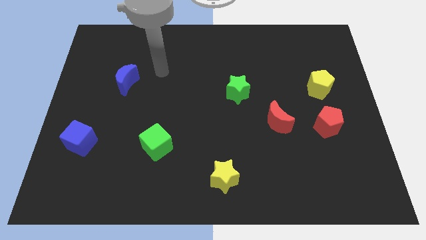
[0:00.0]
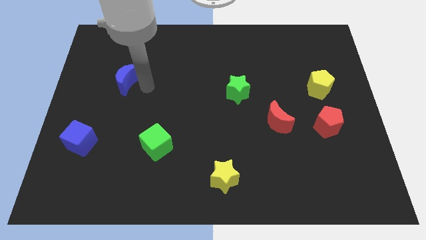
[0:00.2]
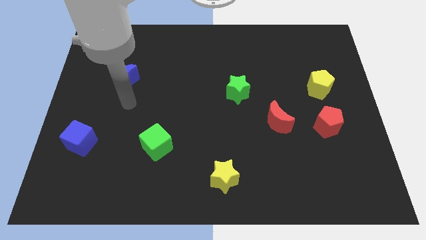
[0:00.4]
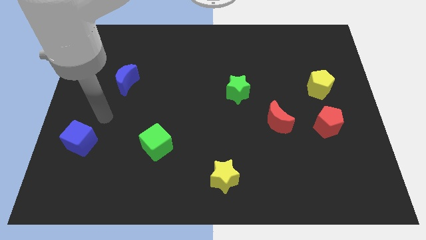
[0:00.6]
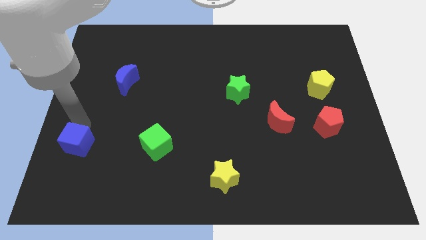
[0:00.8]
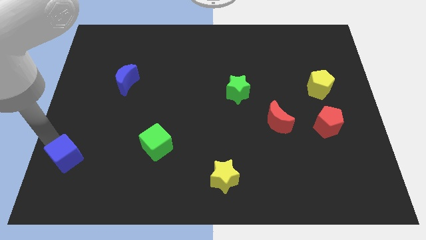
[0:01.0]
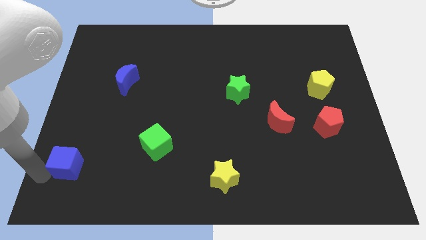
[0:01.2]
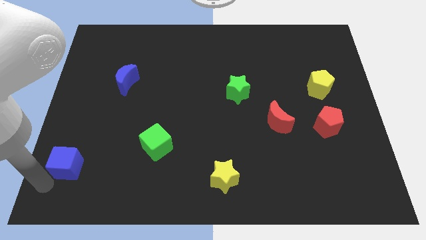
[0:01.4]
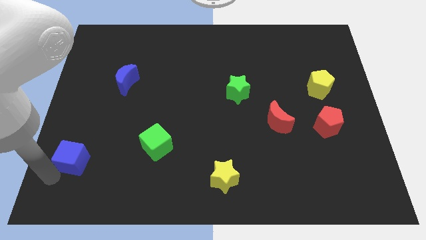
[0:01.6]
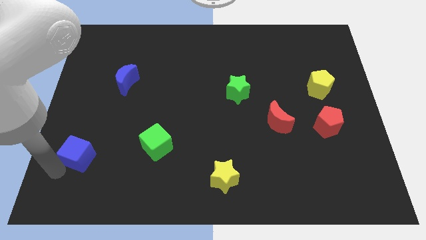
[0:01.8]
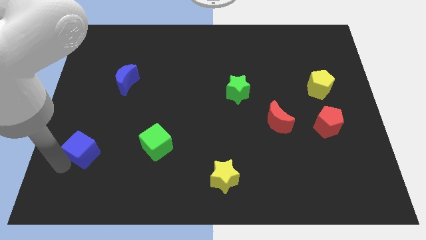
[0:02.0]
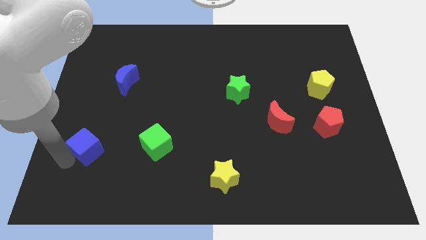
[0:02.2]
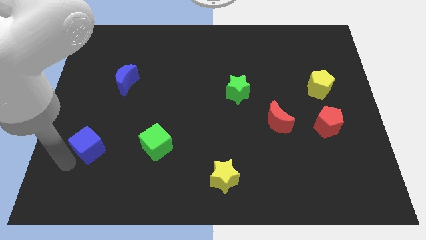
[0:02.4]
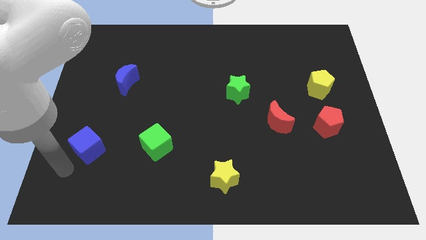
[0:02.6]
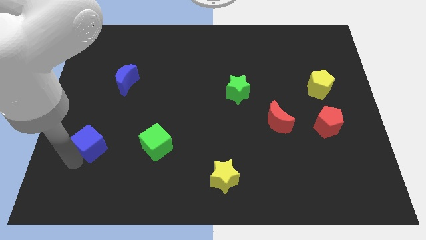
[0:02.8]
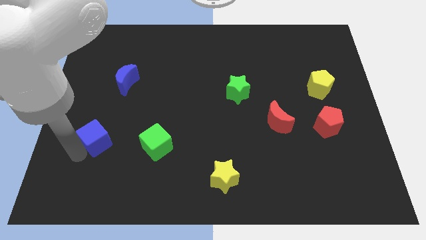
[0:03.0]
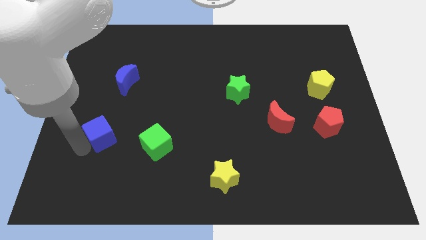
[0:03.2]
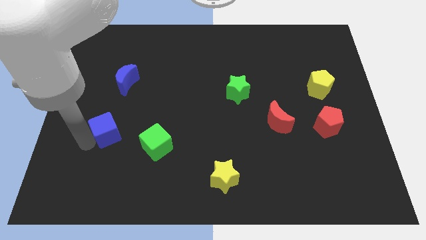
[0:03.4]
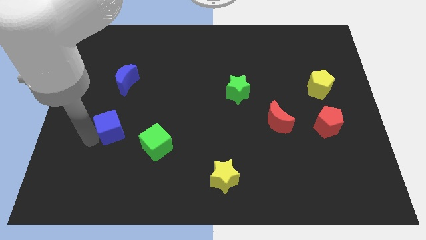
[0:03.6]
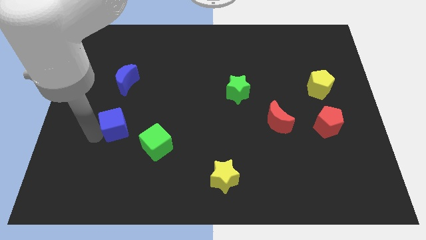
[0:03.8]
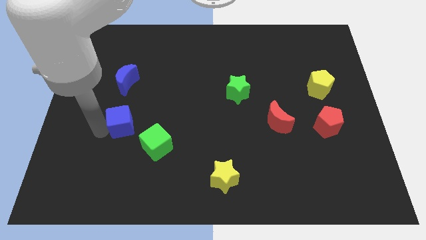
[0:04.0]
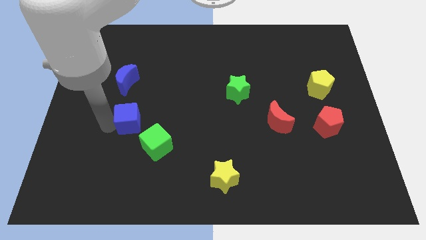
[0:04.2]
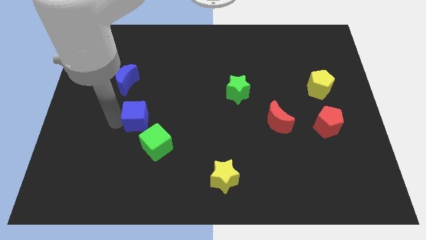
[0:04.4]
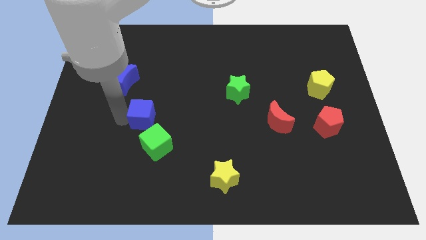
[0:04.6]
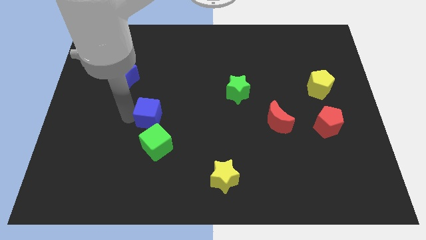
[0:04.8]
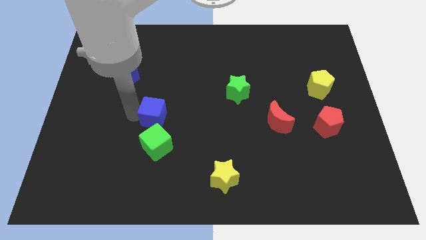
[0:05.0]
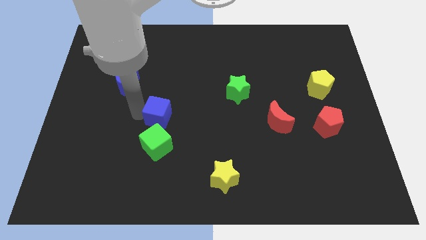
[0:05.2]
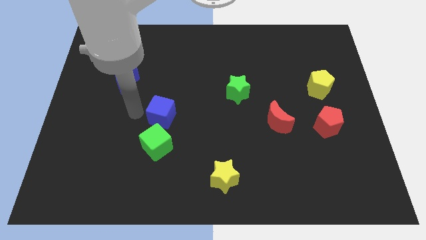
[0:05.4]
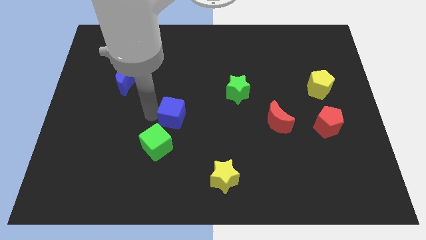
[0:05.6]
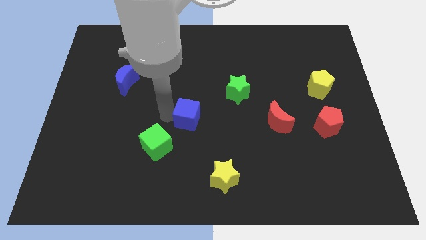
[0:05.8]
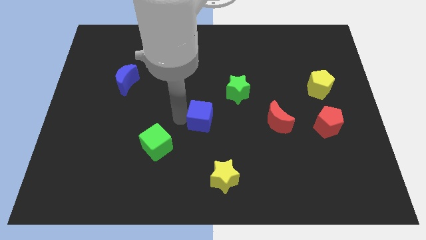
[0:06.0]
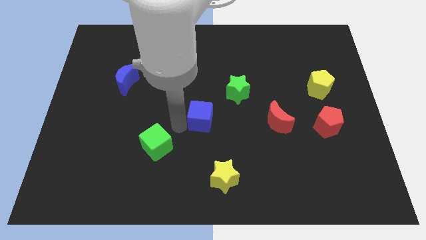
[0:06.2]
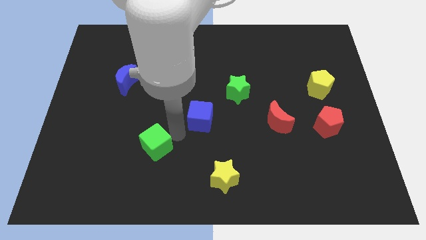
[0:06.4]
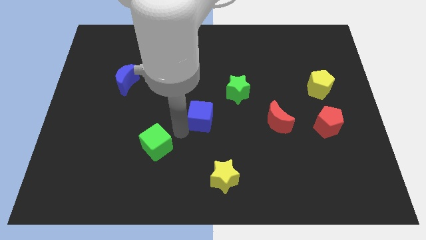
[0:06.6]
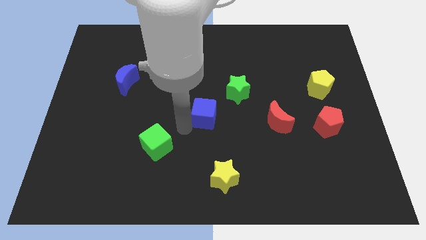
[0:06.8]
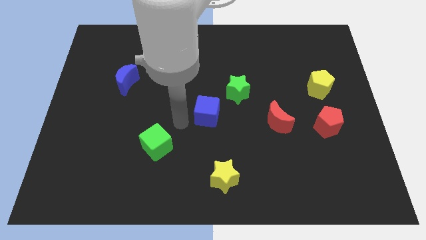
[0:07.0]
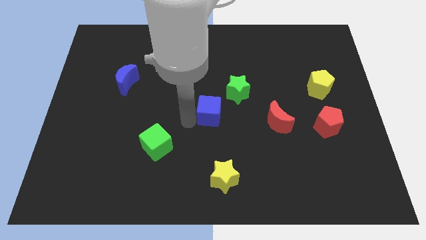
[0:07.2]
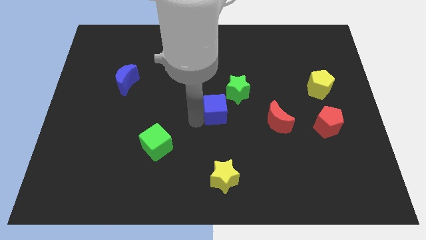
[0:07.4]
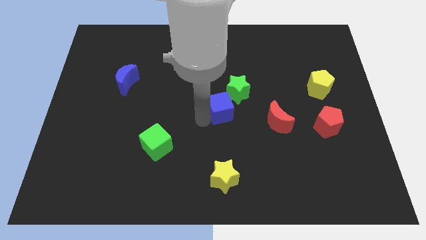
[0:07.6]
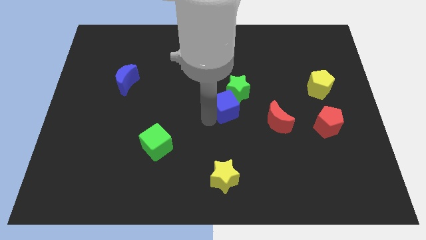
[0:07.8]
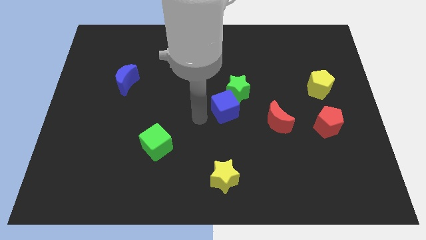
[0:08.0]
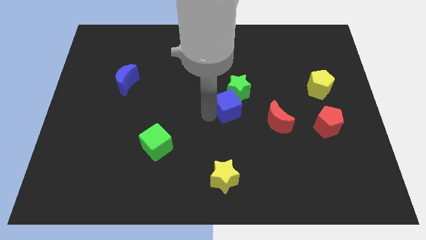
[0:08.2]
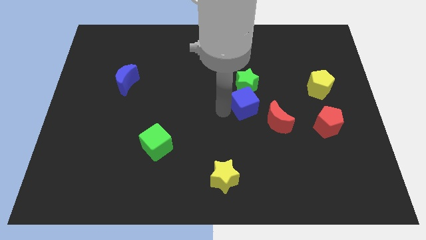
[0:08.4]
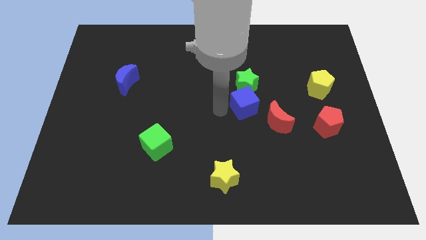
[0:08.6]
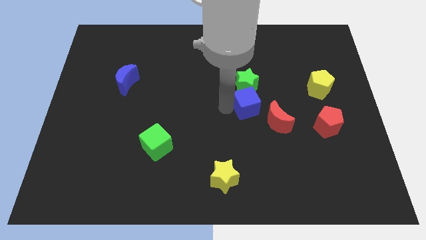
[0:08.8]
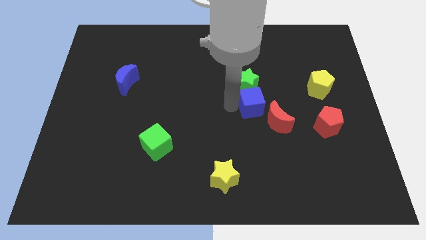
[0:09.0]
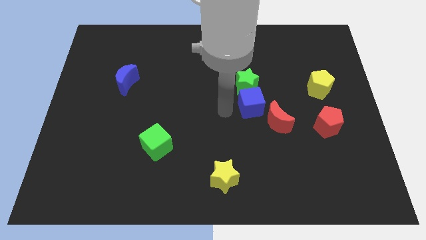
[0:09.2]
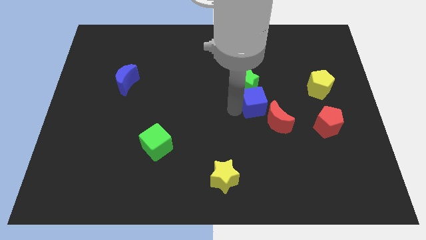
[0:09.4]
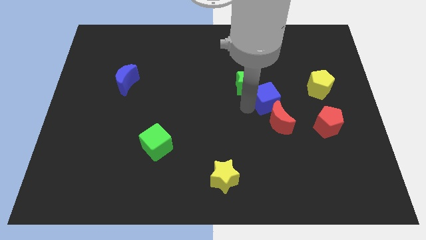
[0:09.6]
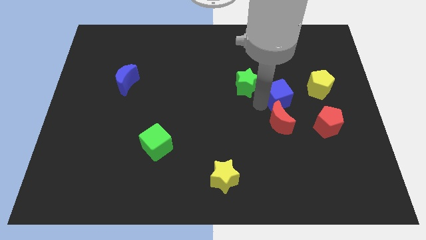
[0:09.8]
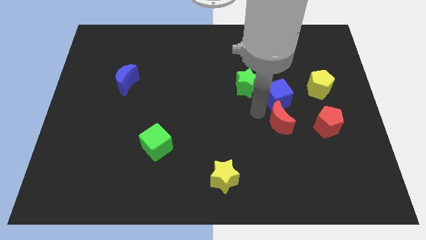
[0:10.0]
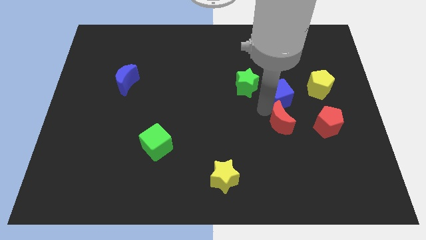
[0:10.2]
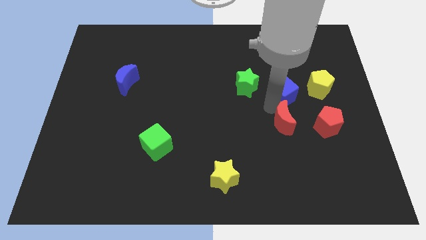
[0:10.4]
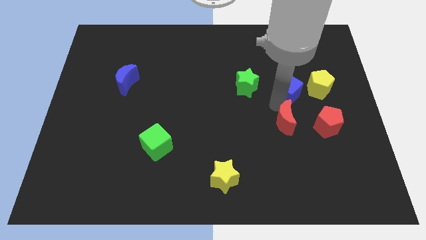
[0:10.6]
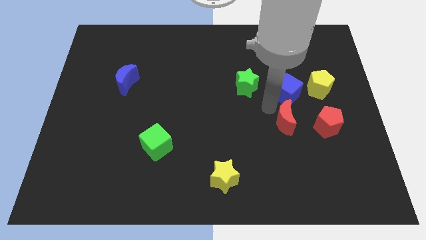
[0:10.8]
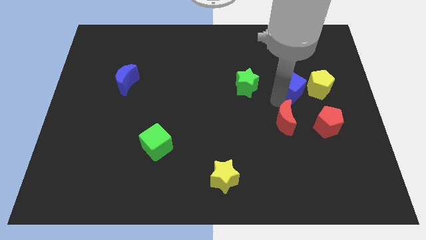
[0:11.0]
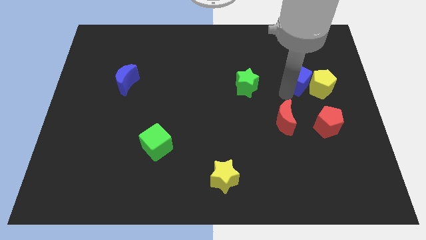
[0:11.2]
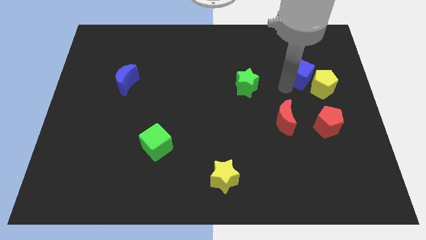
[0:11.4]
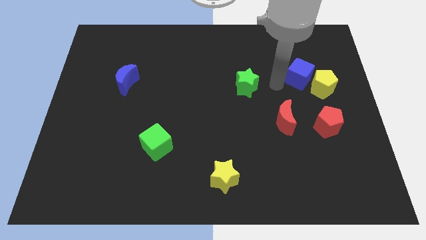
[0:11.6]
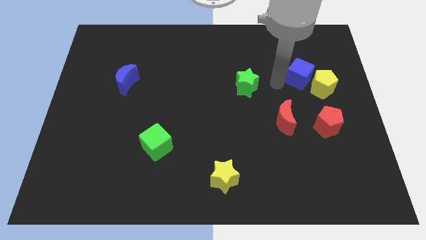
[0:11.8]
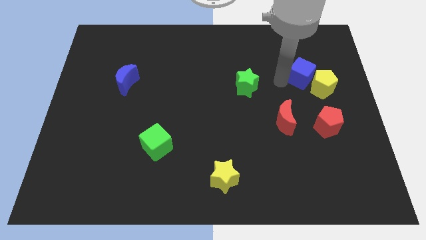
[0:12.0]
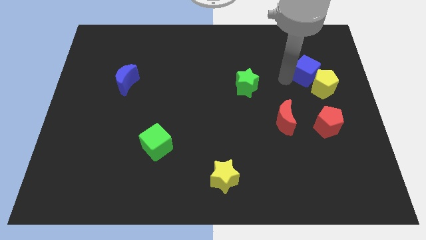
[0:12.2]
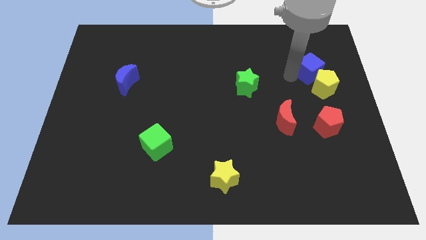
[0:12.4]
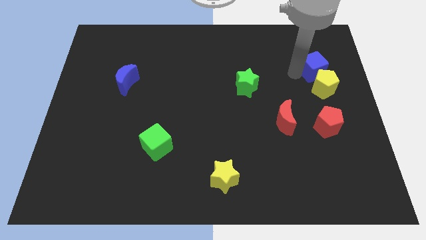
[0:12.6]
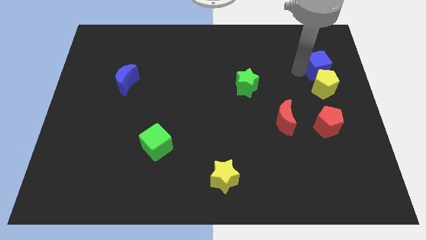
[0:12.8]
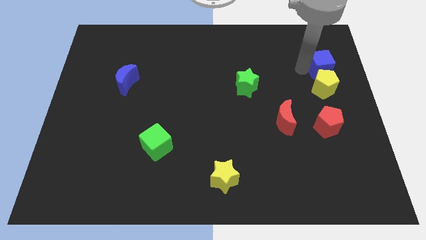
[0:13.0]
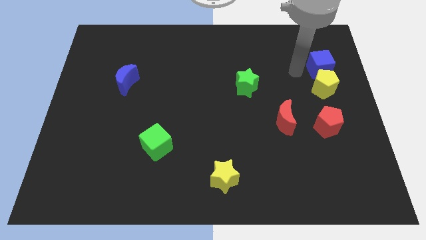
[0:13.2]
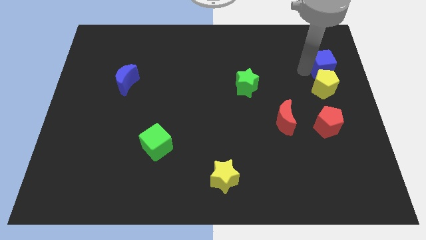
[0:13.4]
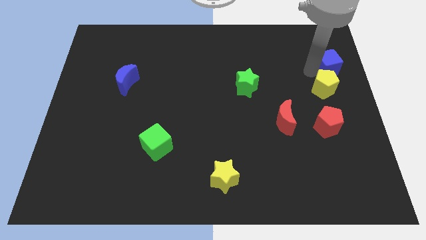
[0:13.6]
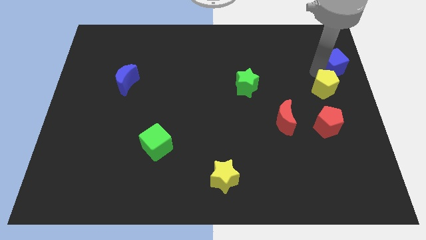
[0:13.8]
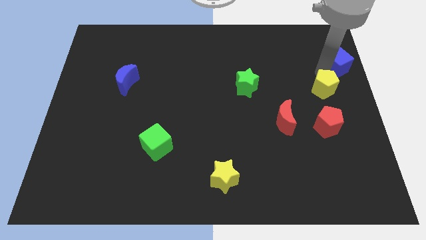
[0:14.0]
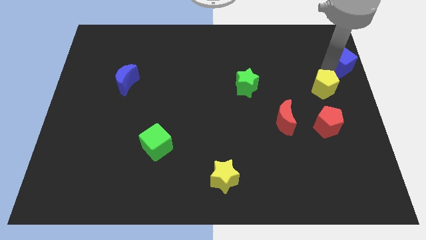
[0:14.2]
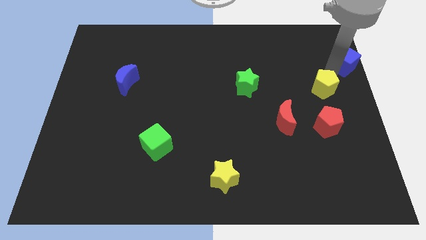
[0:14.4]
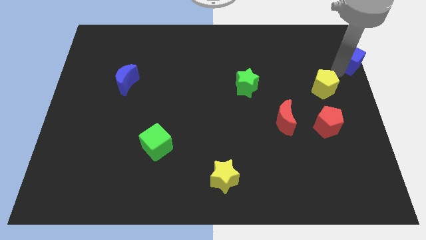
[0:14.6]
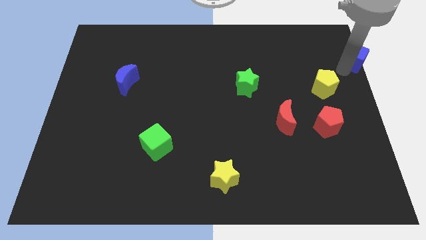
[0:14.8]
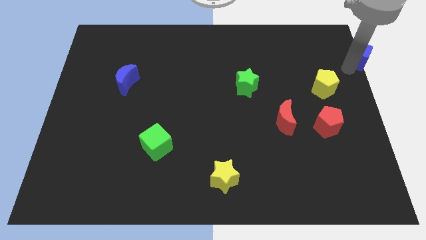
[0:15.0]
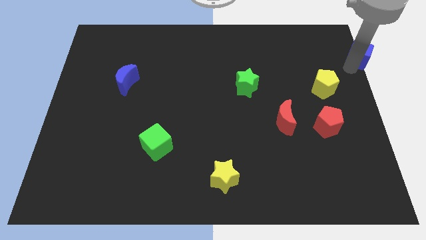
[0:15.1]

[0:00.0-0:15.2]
put the blue cube to the top right of the board
